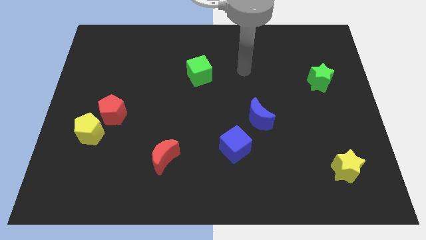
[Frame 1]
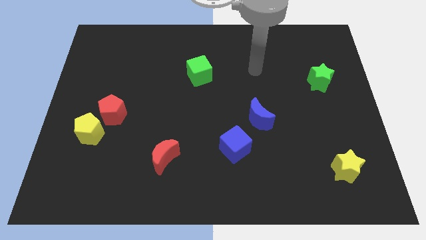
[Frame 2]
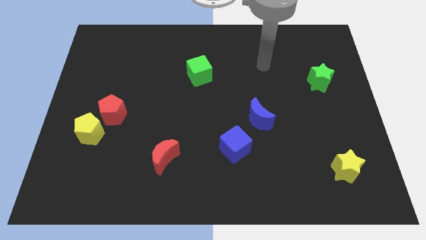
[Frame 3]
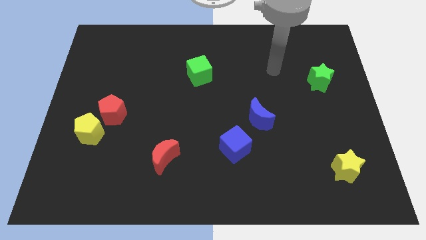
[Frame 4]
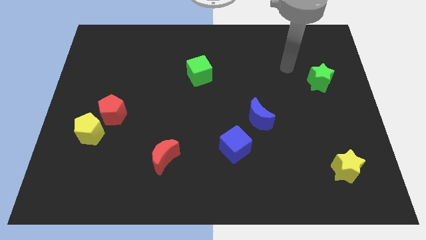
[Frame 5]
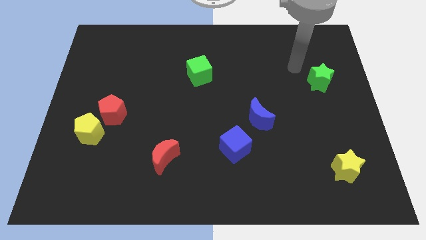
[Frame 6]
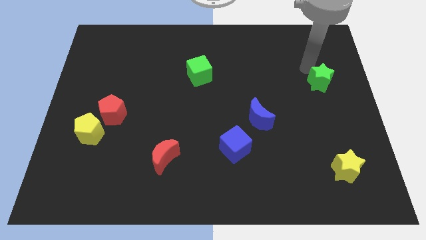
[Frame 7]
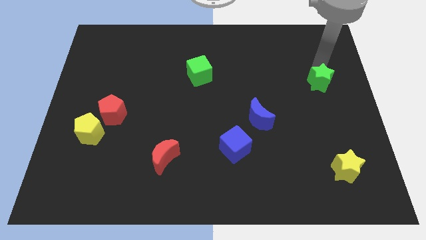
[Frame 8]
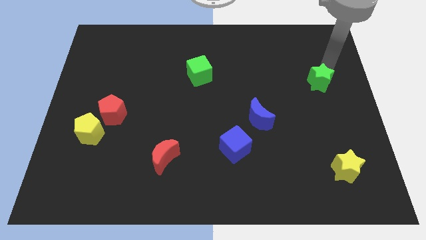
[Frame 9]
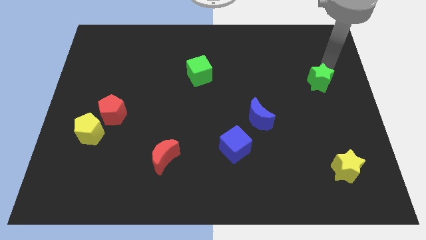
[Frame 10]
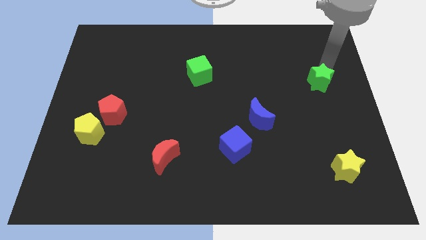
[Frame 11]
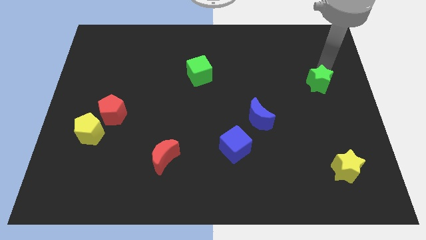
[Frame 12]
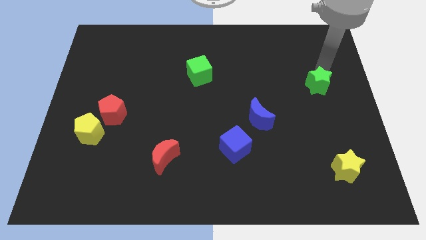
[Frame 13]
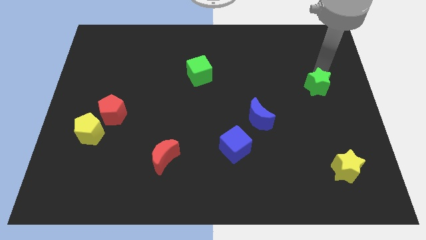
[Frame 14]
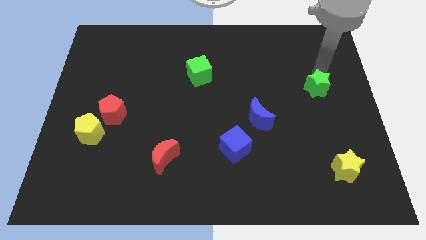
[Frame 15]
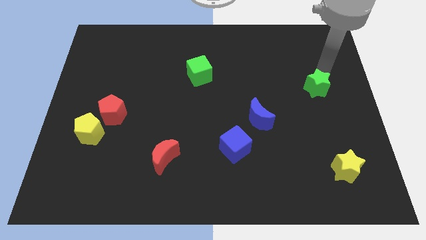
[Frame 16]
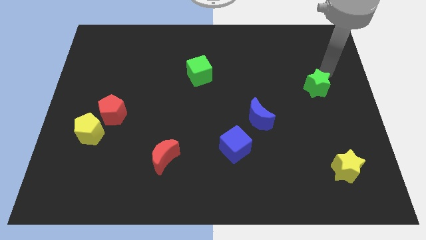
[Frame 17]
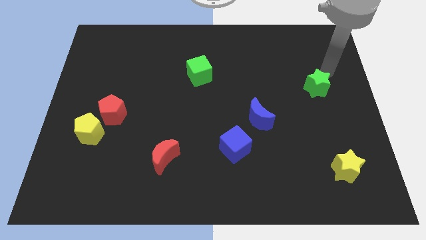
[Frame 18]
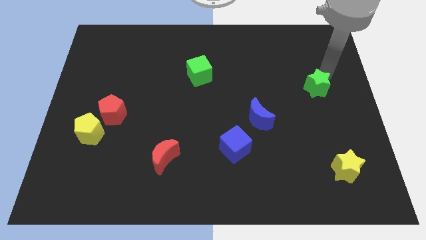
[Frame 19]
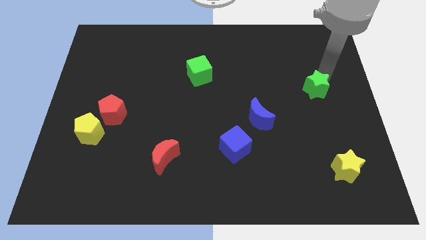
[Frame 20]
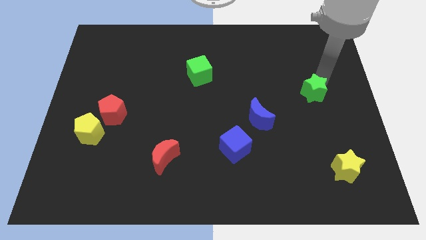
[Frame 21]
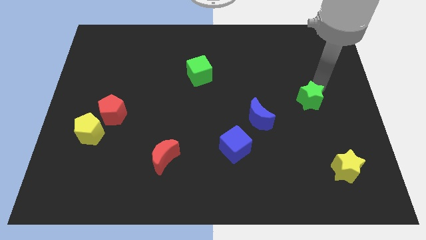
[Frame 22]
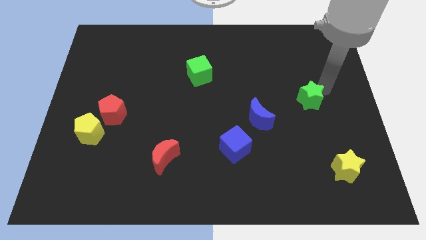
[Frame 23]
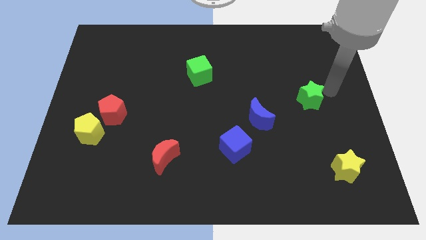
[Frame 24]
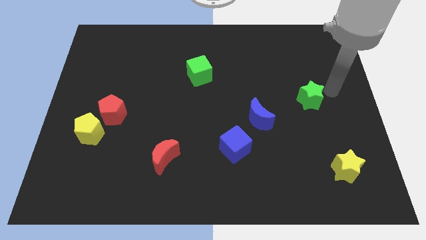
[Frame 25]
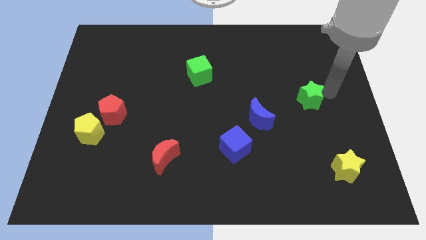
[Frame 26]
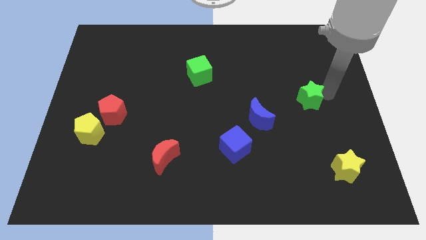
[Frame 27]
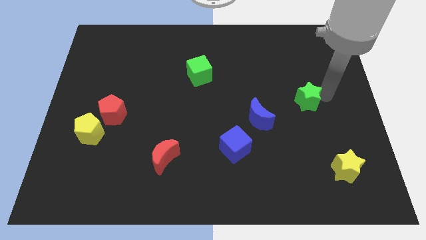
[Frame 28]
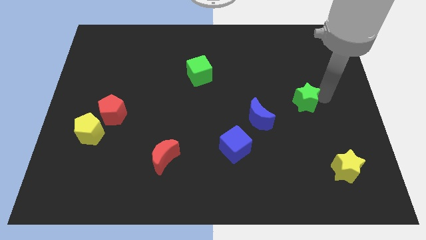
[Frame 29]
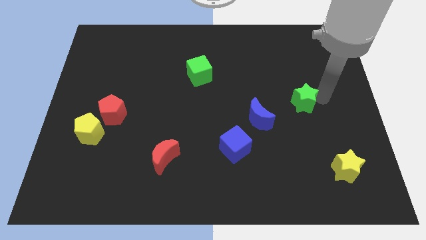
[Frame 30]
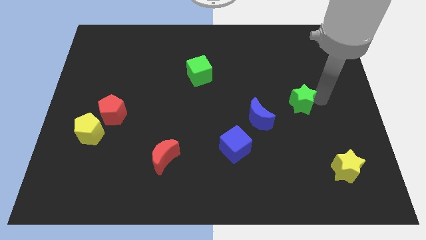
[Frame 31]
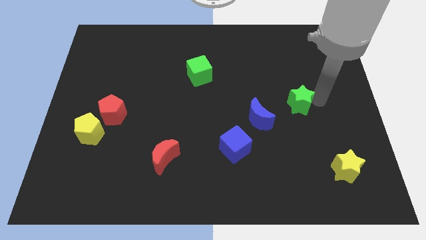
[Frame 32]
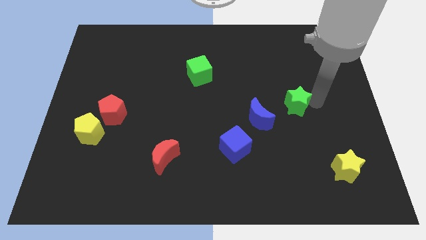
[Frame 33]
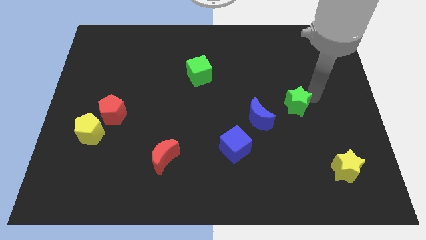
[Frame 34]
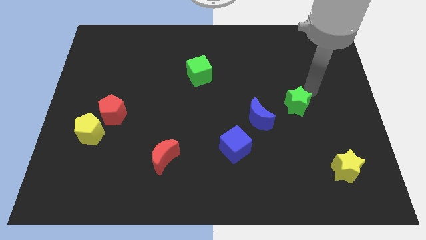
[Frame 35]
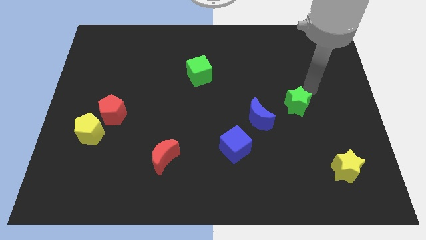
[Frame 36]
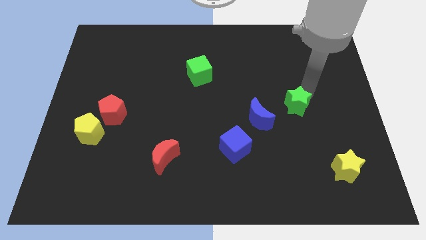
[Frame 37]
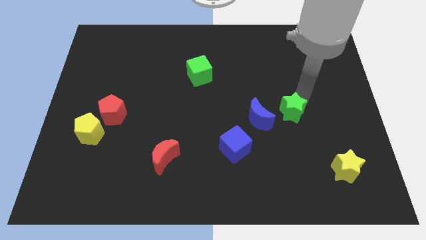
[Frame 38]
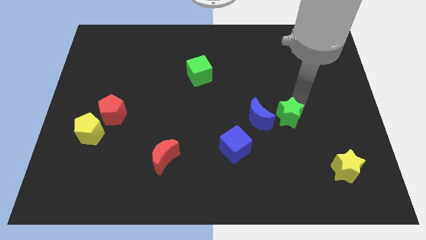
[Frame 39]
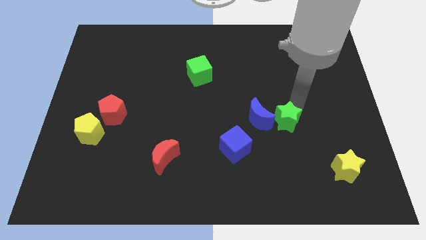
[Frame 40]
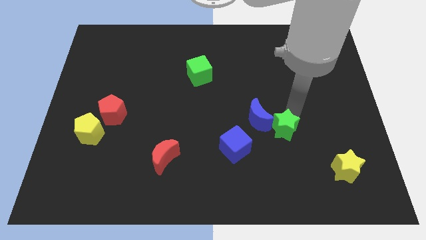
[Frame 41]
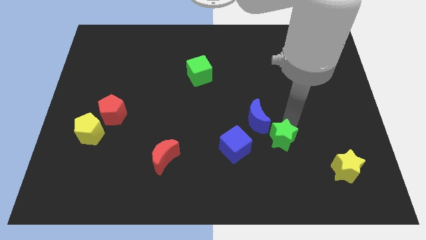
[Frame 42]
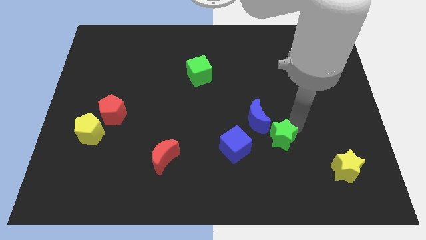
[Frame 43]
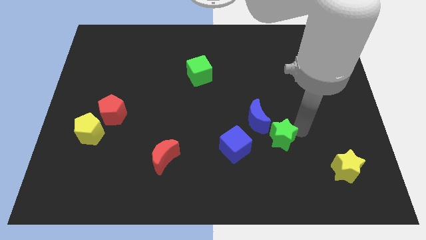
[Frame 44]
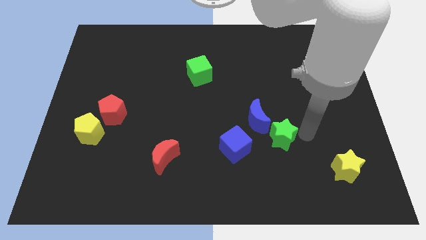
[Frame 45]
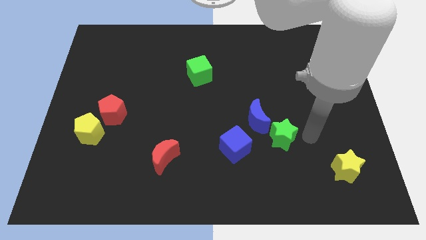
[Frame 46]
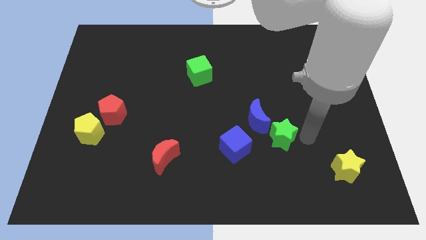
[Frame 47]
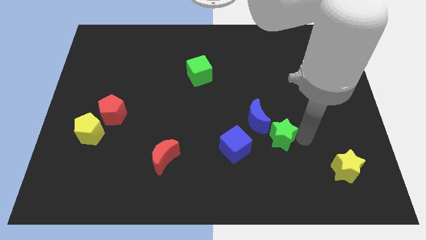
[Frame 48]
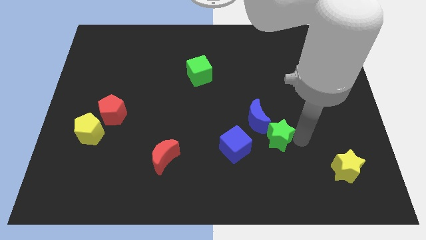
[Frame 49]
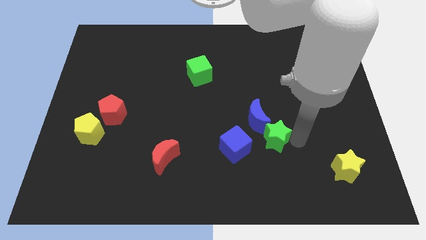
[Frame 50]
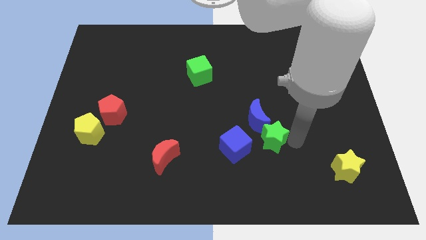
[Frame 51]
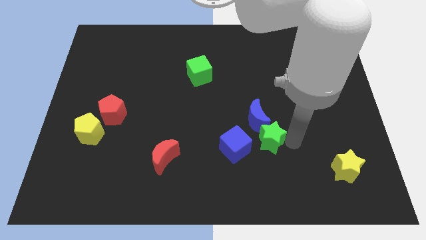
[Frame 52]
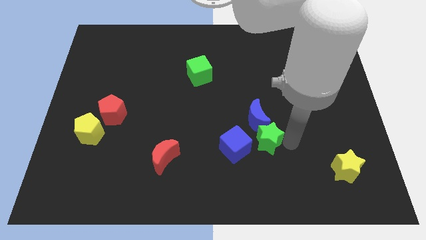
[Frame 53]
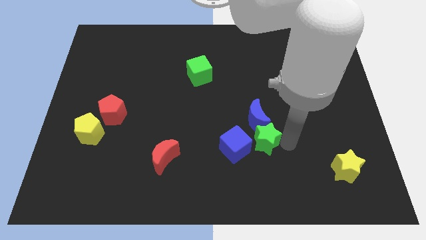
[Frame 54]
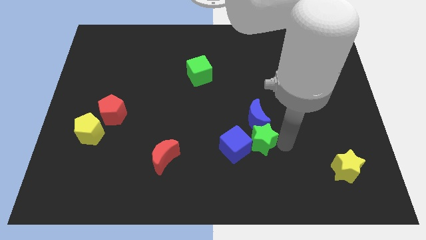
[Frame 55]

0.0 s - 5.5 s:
put the green star towards the blue cube
